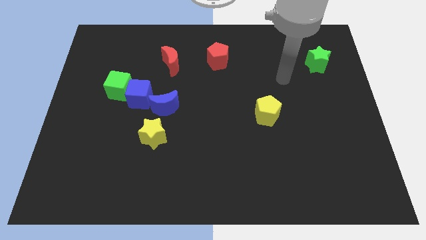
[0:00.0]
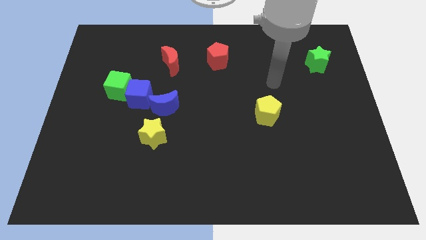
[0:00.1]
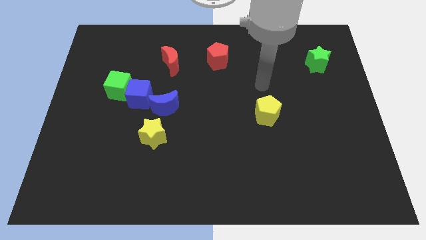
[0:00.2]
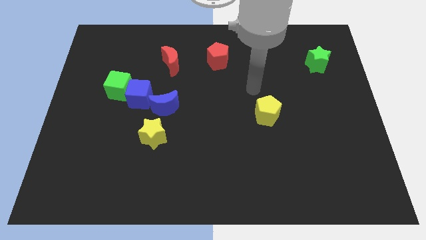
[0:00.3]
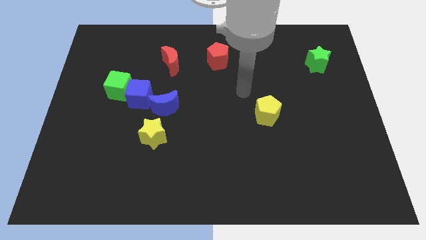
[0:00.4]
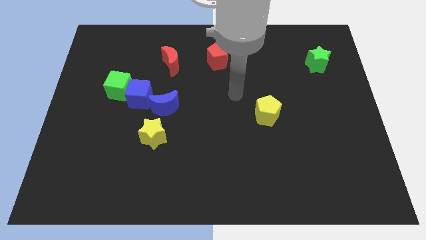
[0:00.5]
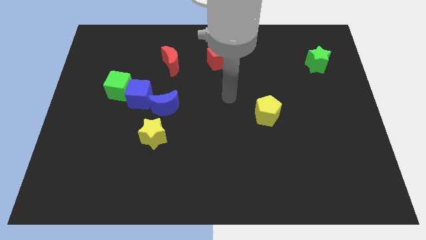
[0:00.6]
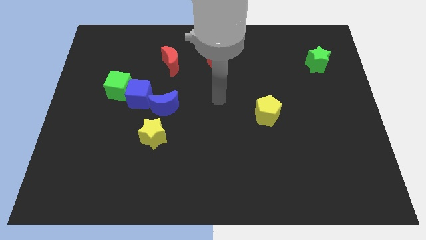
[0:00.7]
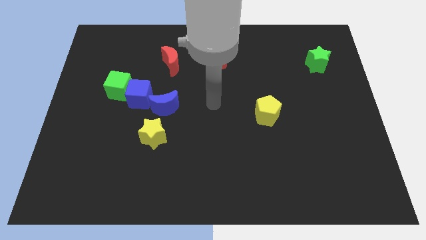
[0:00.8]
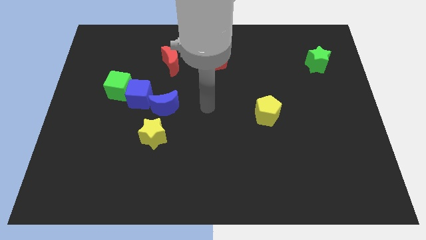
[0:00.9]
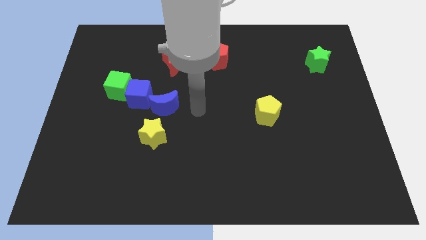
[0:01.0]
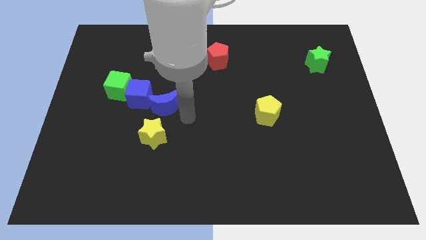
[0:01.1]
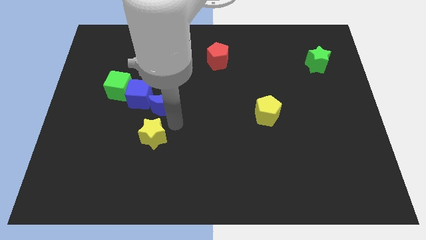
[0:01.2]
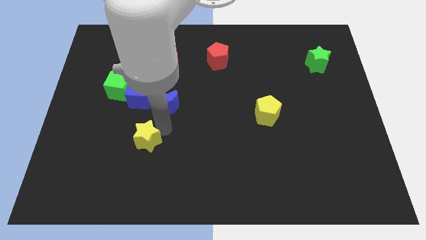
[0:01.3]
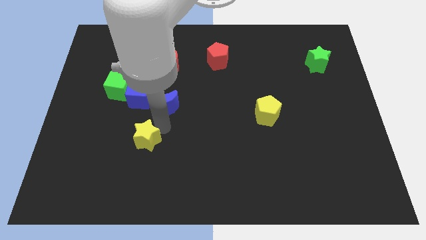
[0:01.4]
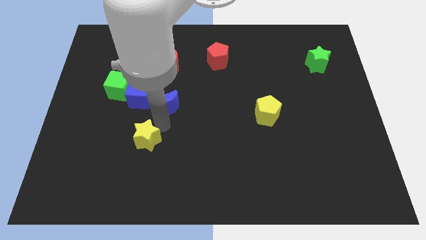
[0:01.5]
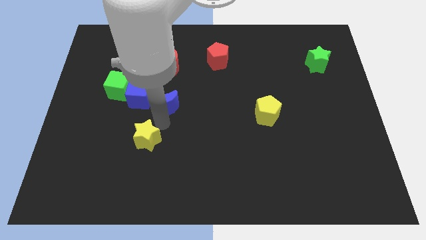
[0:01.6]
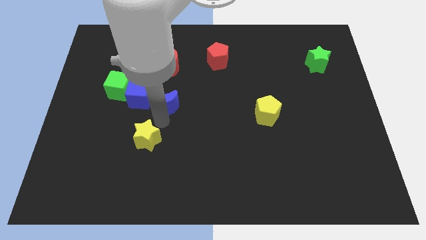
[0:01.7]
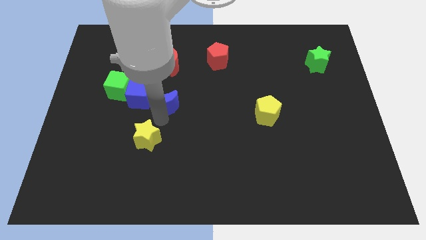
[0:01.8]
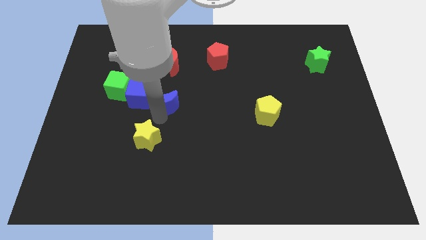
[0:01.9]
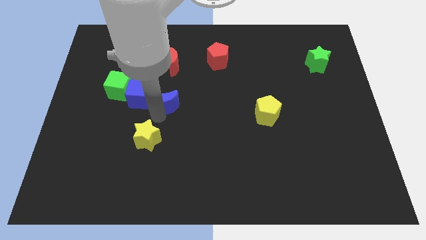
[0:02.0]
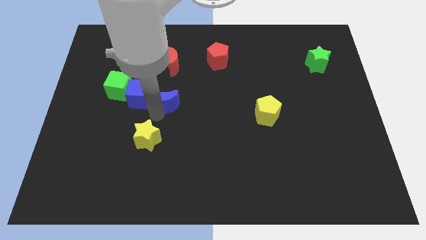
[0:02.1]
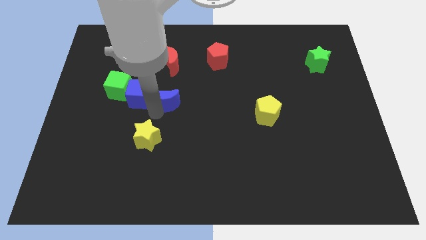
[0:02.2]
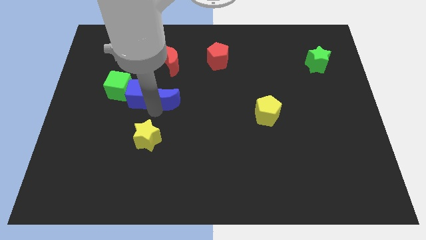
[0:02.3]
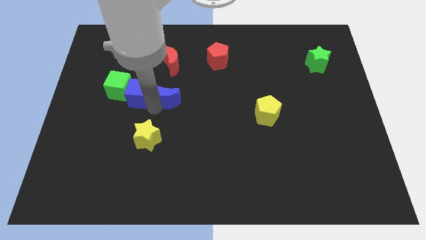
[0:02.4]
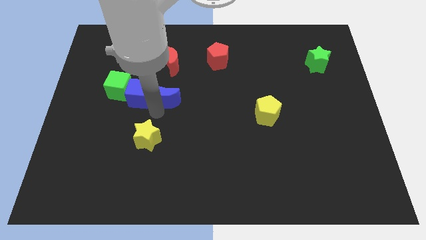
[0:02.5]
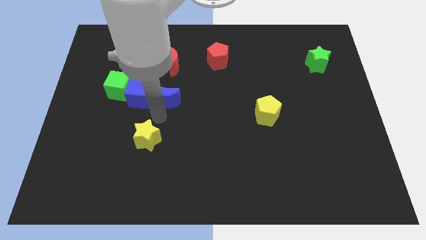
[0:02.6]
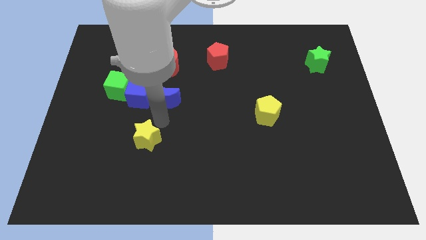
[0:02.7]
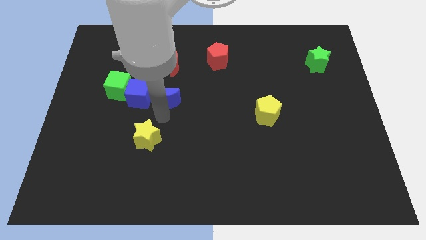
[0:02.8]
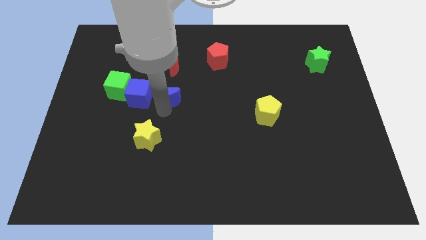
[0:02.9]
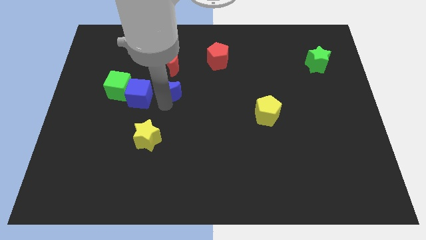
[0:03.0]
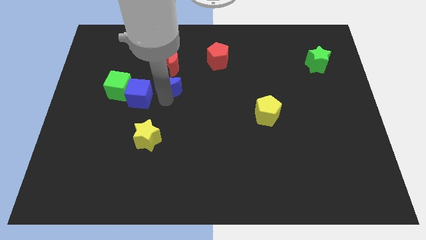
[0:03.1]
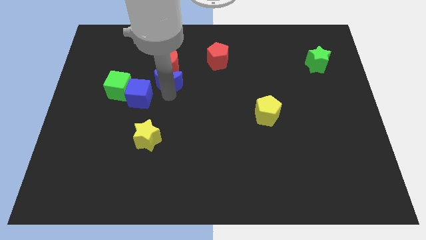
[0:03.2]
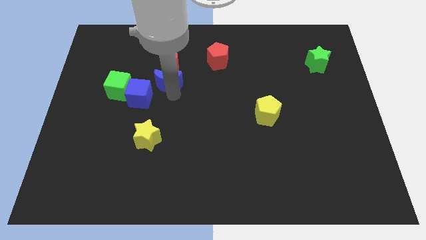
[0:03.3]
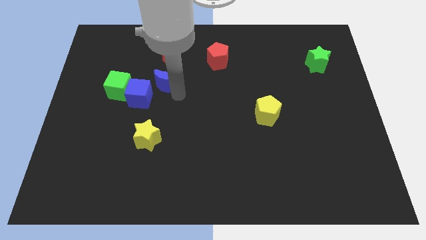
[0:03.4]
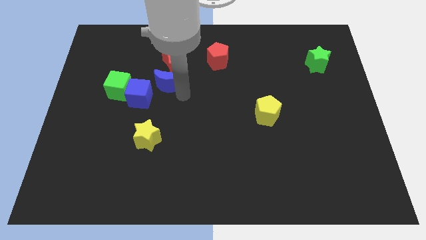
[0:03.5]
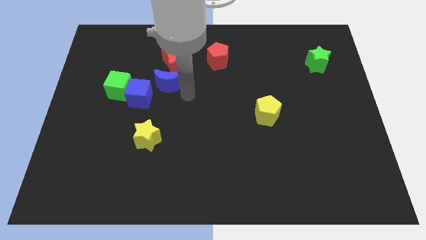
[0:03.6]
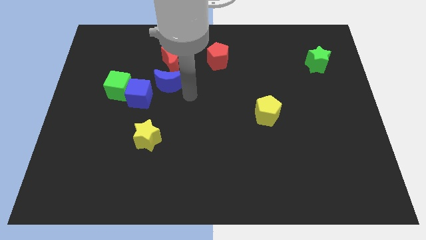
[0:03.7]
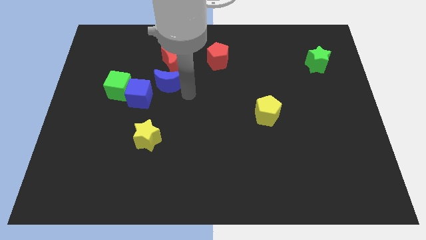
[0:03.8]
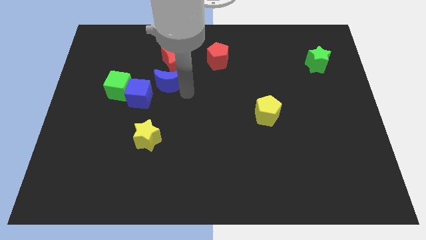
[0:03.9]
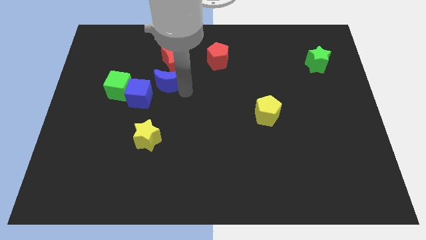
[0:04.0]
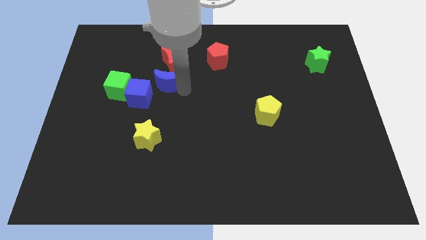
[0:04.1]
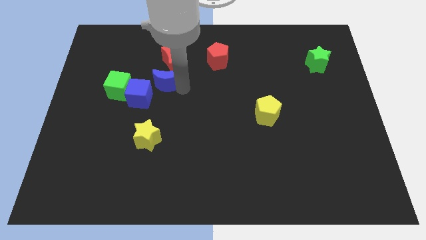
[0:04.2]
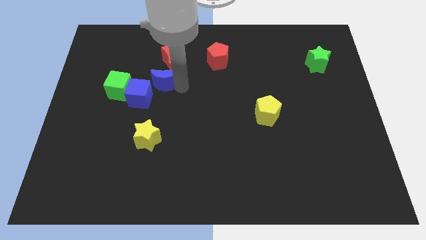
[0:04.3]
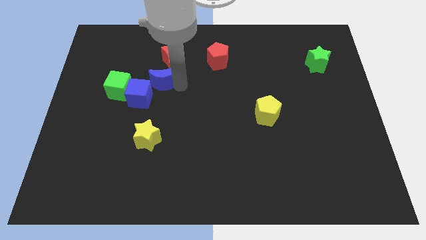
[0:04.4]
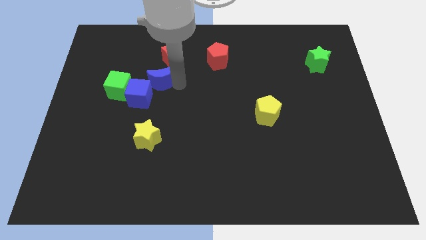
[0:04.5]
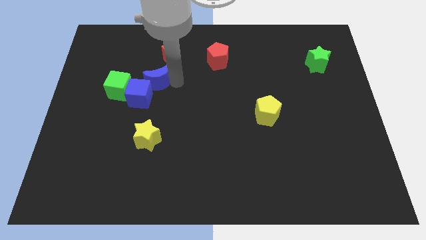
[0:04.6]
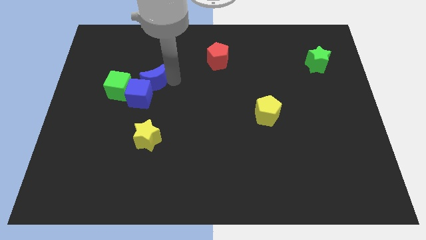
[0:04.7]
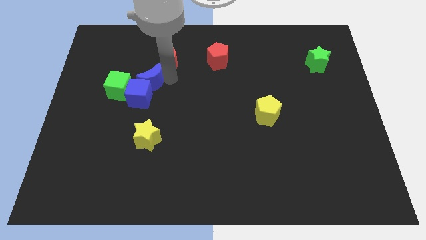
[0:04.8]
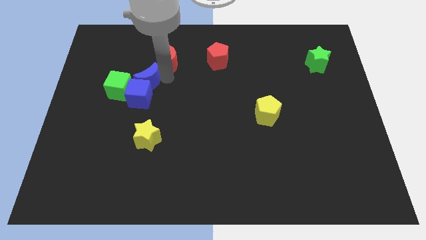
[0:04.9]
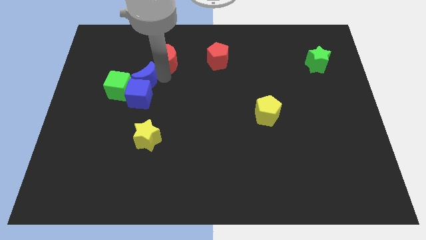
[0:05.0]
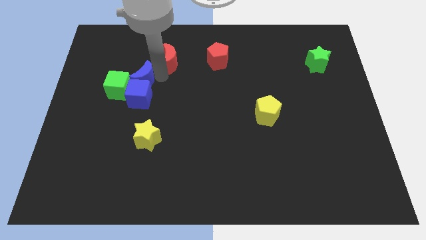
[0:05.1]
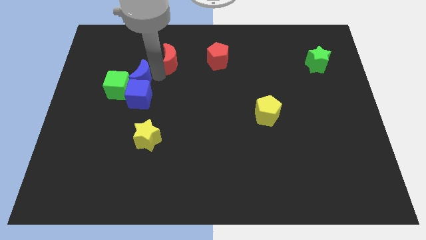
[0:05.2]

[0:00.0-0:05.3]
slide the blue moon to the green cube

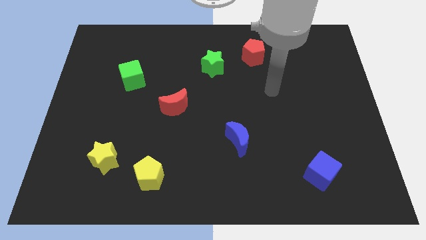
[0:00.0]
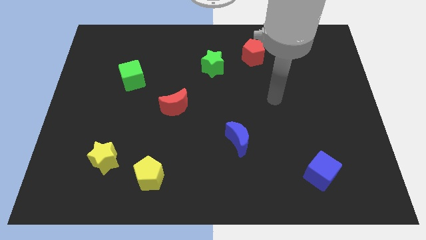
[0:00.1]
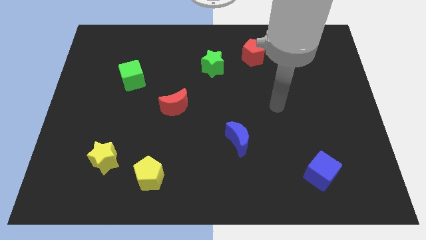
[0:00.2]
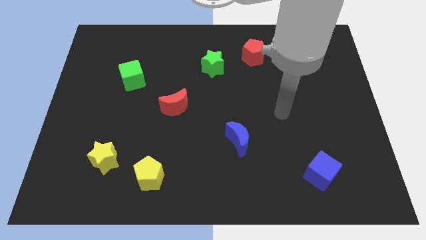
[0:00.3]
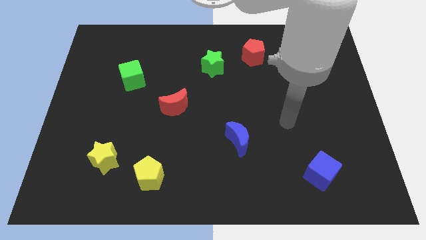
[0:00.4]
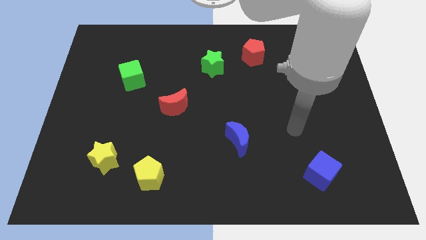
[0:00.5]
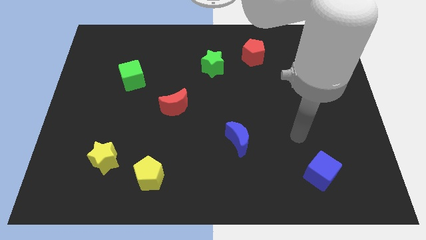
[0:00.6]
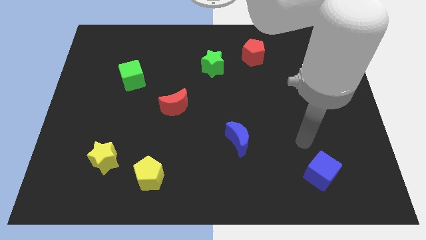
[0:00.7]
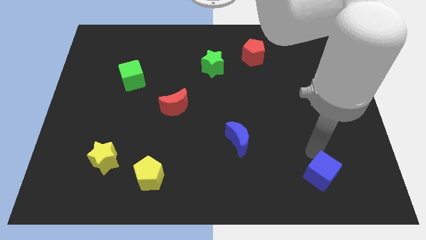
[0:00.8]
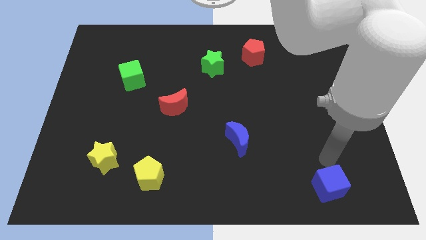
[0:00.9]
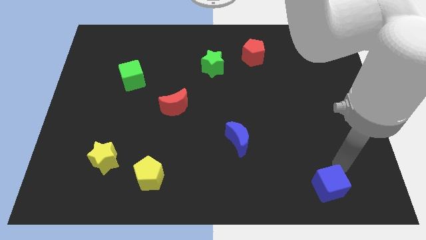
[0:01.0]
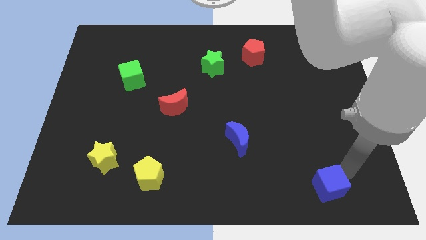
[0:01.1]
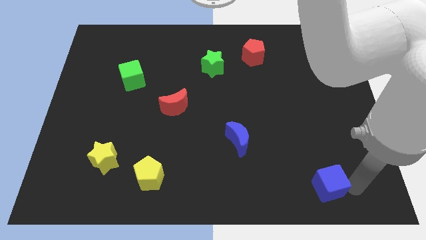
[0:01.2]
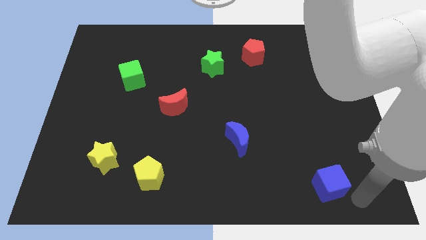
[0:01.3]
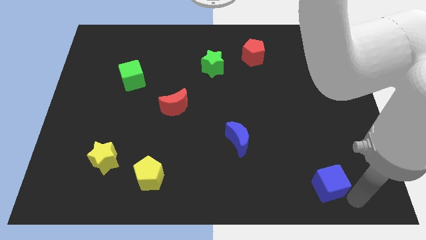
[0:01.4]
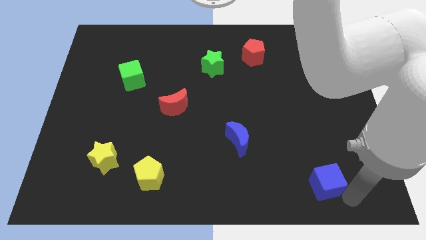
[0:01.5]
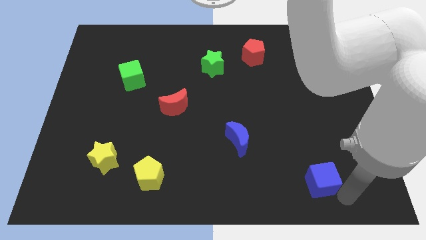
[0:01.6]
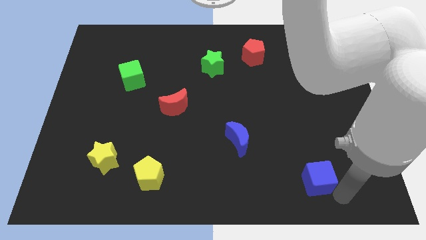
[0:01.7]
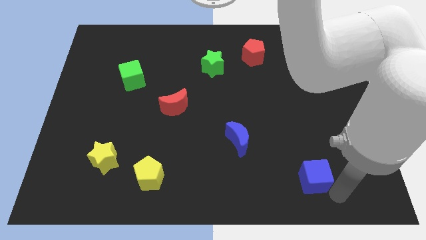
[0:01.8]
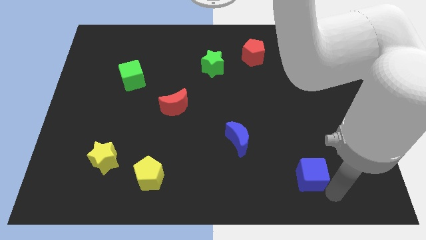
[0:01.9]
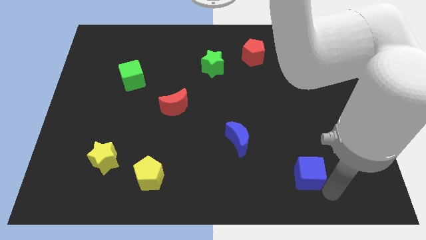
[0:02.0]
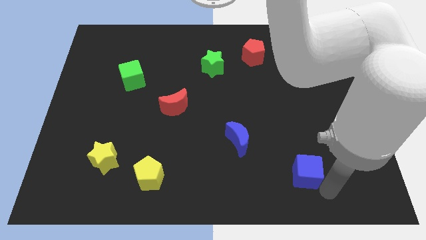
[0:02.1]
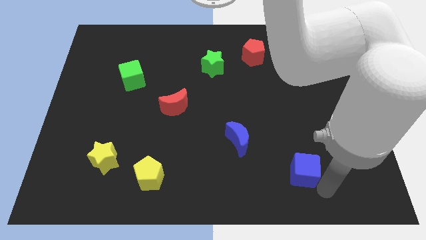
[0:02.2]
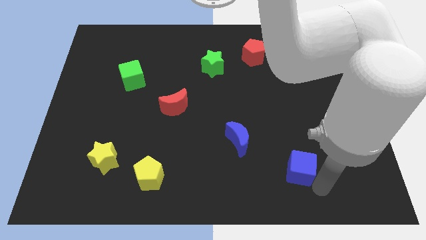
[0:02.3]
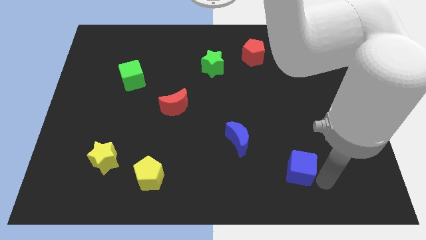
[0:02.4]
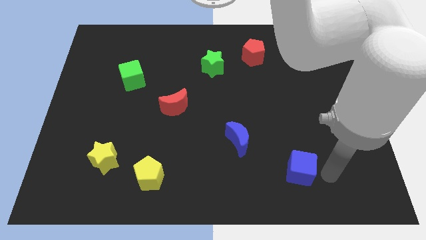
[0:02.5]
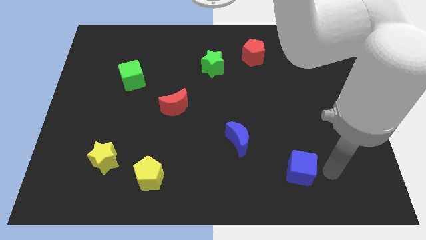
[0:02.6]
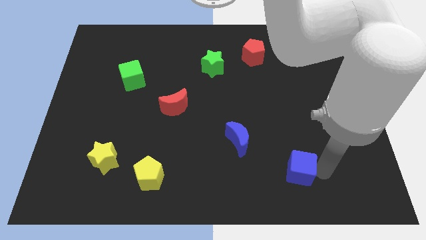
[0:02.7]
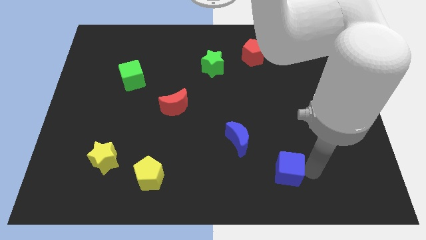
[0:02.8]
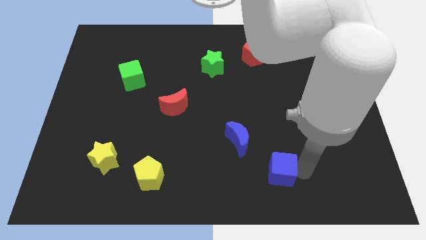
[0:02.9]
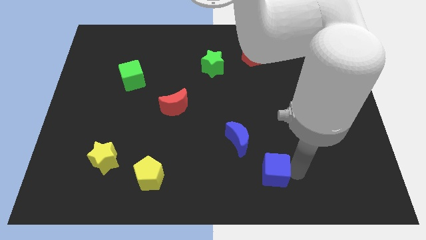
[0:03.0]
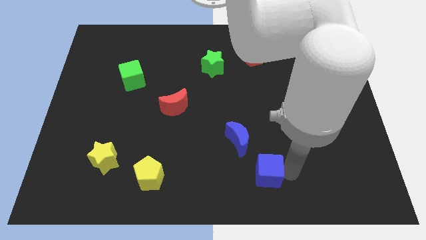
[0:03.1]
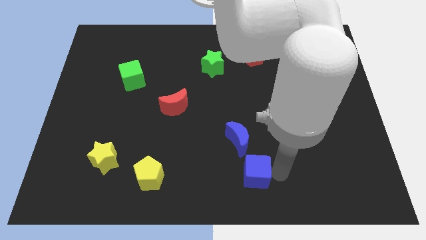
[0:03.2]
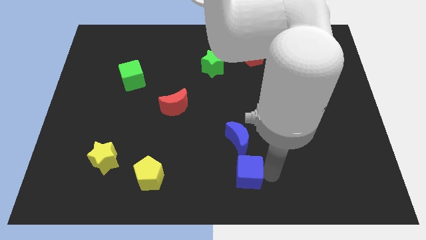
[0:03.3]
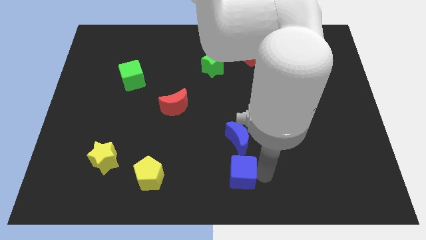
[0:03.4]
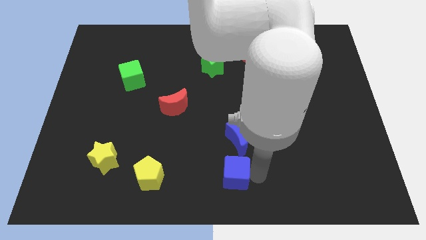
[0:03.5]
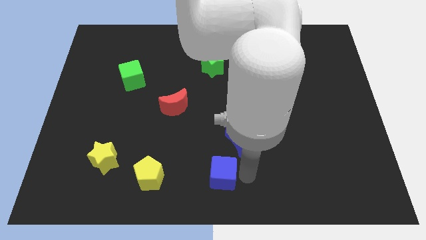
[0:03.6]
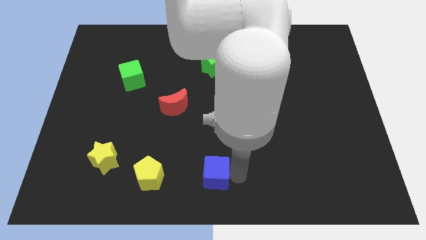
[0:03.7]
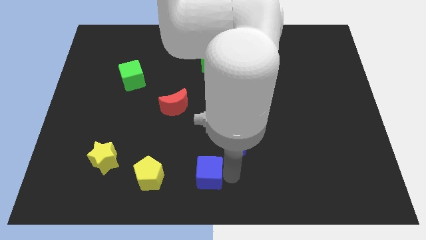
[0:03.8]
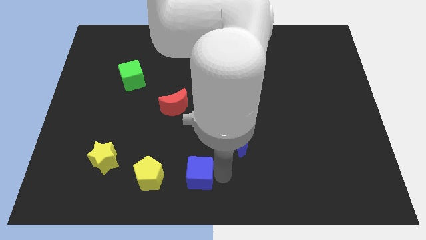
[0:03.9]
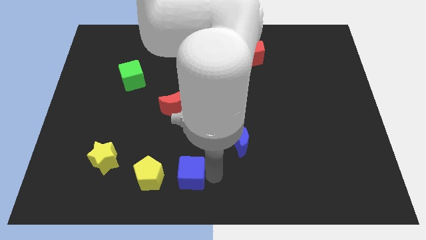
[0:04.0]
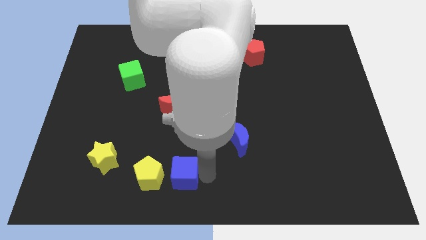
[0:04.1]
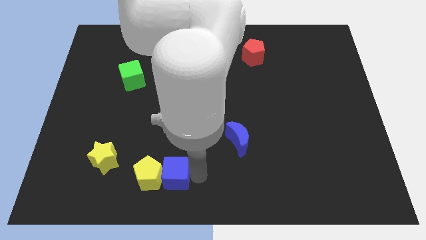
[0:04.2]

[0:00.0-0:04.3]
move the blue cube towards the yellow pentagon
